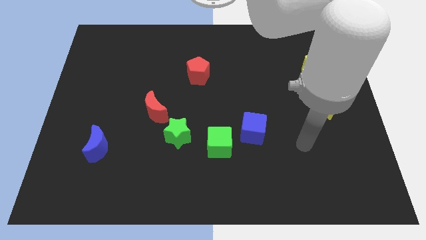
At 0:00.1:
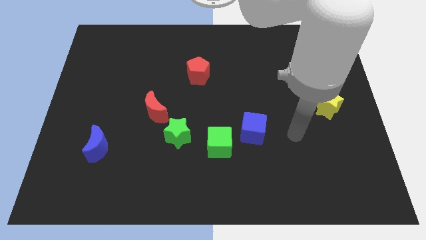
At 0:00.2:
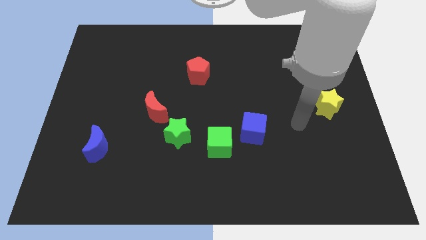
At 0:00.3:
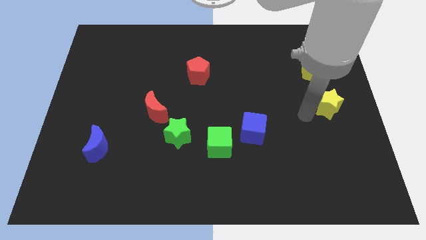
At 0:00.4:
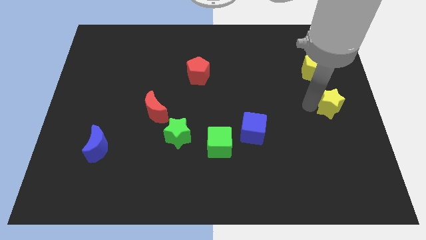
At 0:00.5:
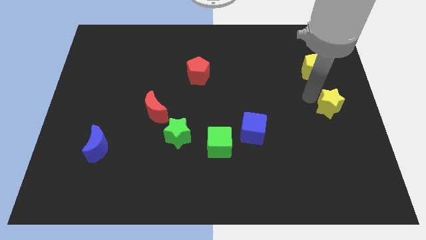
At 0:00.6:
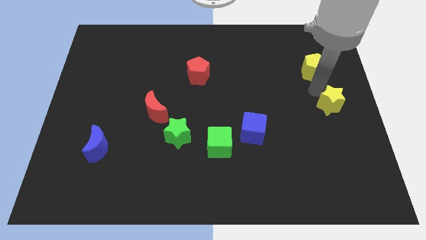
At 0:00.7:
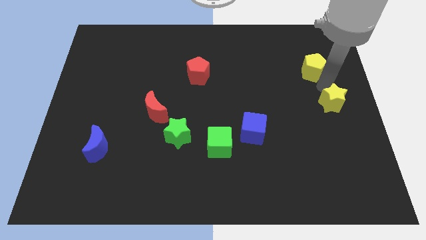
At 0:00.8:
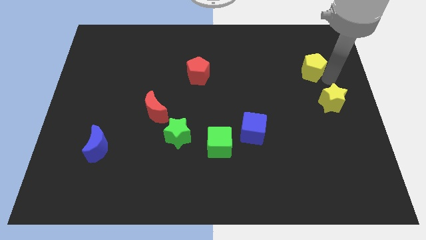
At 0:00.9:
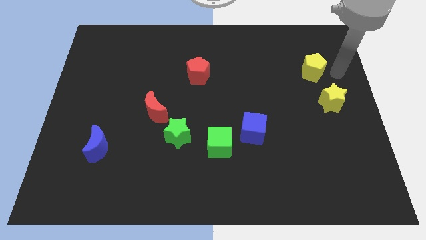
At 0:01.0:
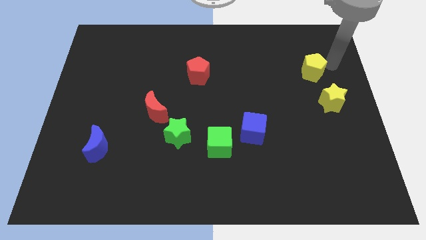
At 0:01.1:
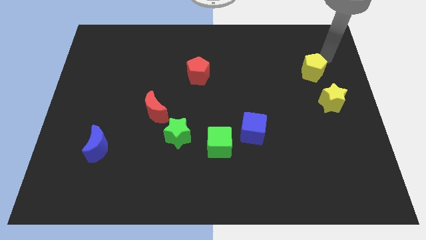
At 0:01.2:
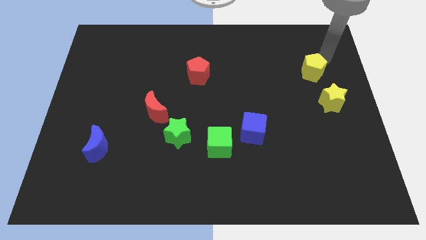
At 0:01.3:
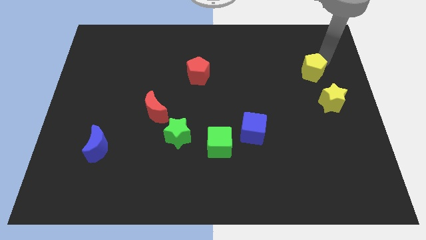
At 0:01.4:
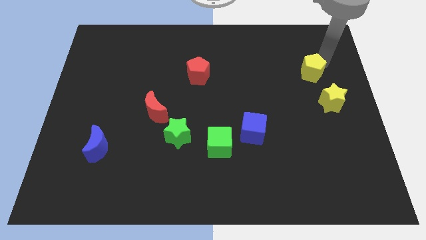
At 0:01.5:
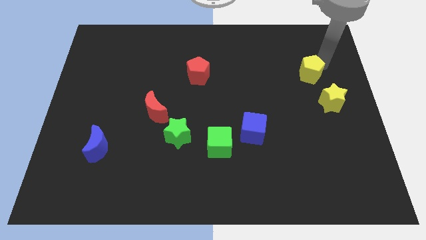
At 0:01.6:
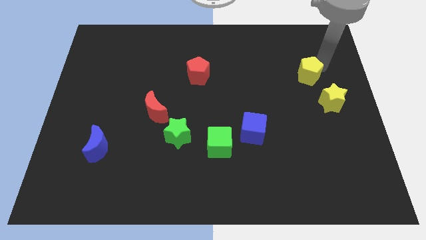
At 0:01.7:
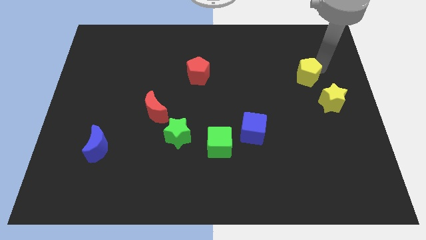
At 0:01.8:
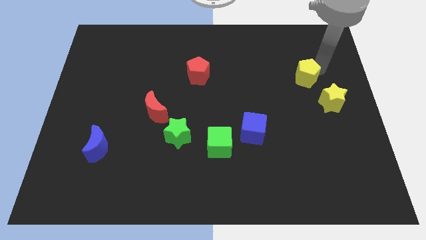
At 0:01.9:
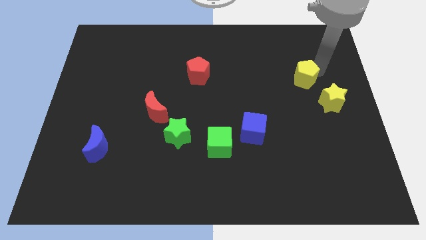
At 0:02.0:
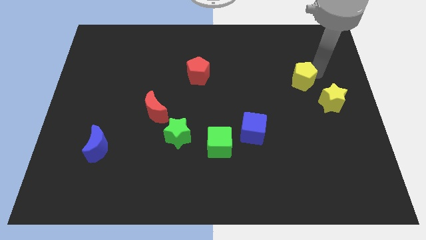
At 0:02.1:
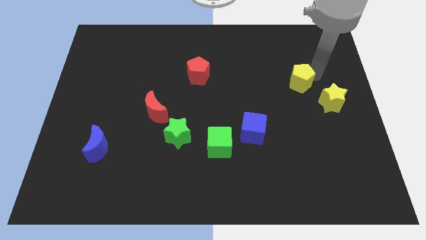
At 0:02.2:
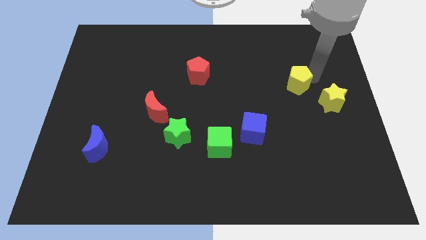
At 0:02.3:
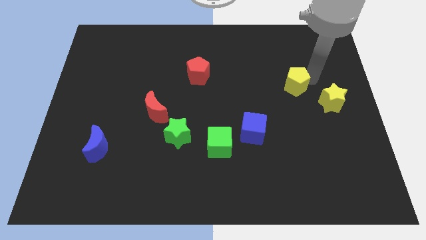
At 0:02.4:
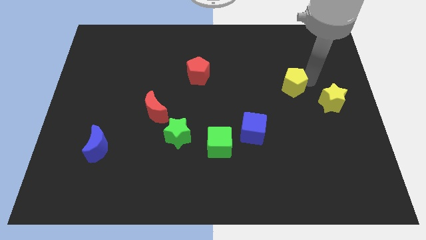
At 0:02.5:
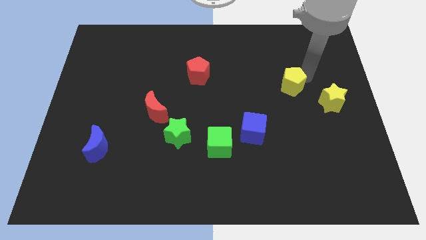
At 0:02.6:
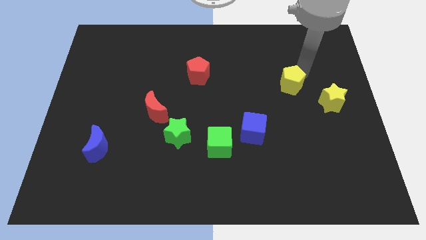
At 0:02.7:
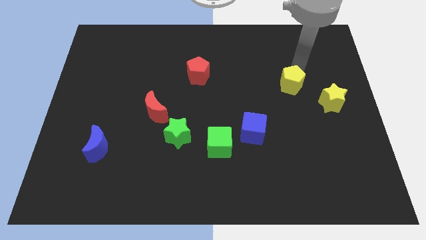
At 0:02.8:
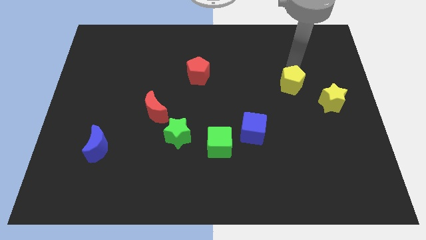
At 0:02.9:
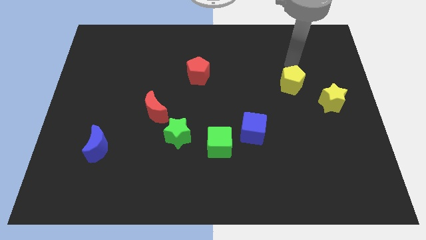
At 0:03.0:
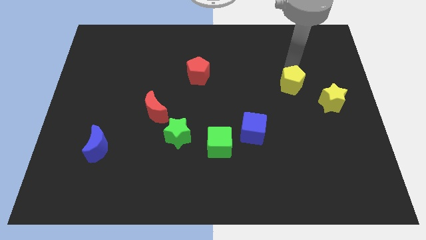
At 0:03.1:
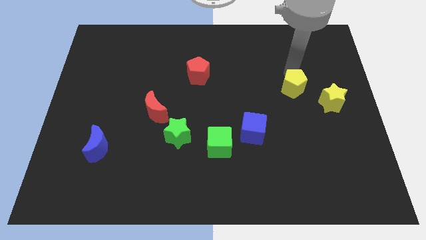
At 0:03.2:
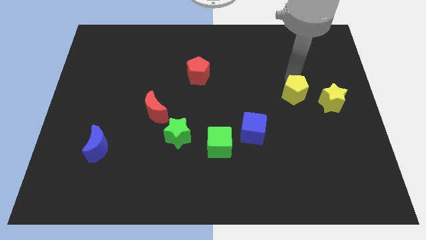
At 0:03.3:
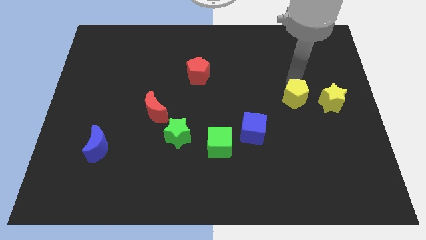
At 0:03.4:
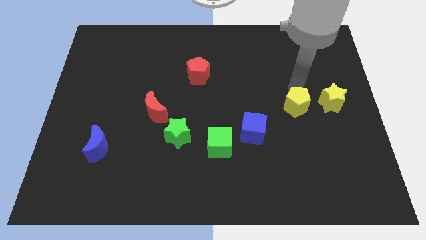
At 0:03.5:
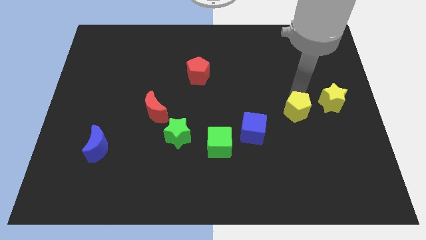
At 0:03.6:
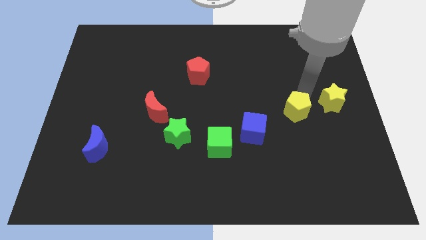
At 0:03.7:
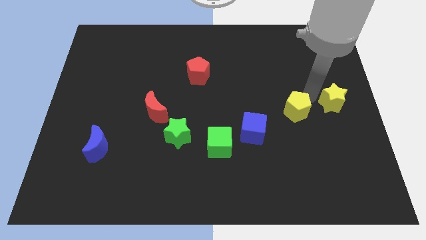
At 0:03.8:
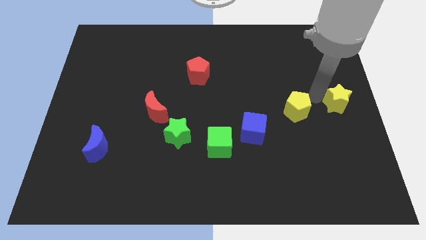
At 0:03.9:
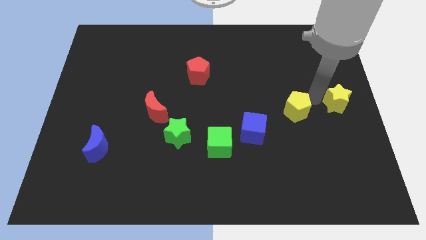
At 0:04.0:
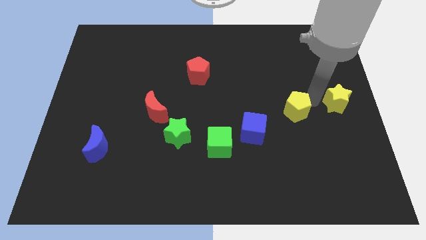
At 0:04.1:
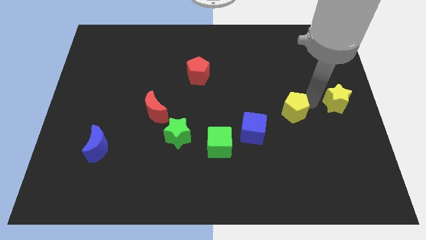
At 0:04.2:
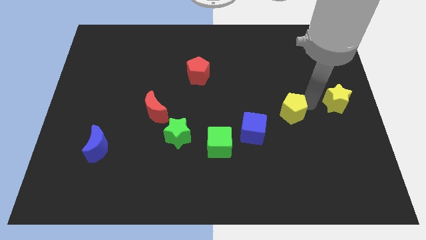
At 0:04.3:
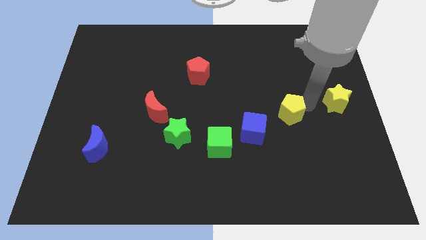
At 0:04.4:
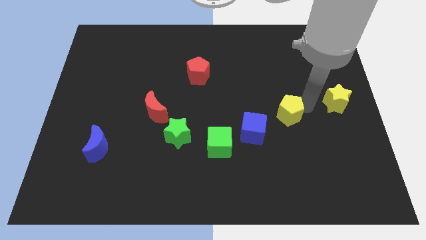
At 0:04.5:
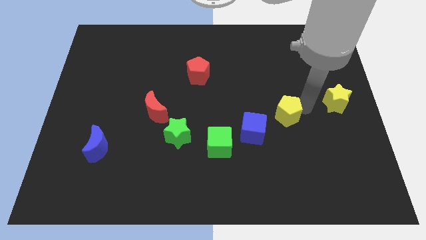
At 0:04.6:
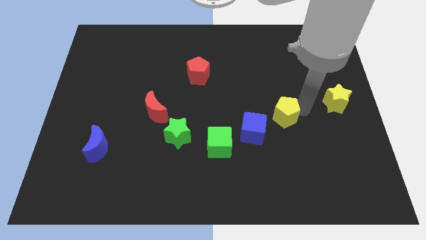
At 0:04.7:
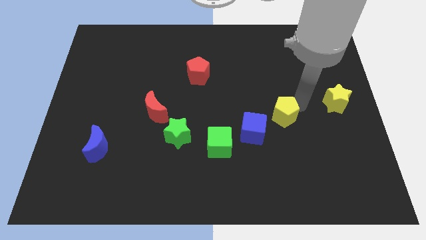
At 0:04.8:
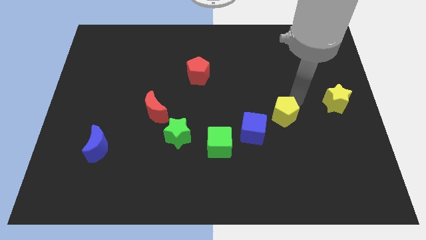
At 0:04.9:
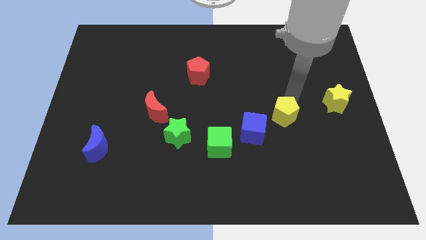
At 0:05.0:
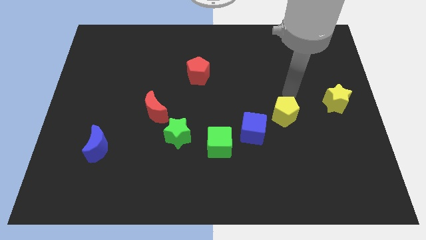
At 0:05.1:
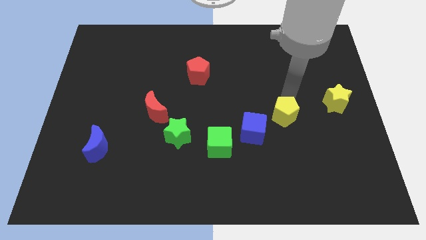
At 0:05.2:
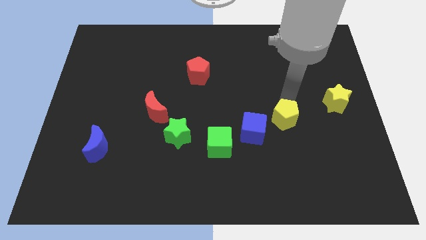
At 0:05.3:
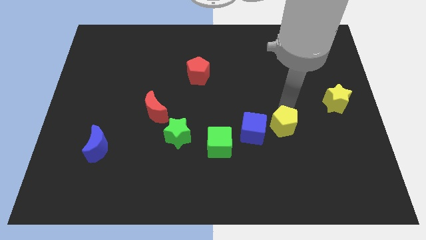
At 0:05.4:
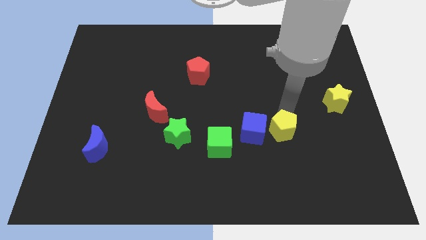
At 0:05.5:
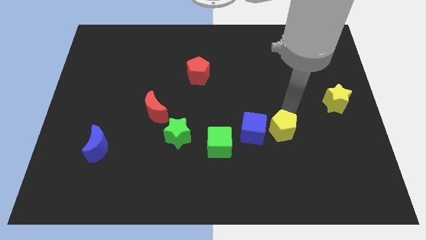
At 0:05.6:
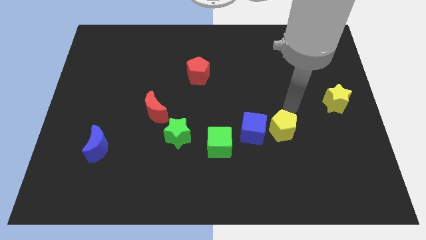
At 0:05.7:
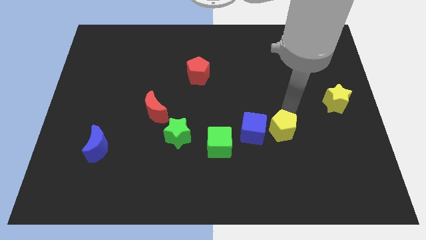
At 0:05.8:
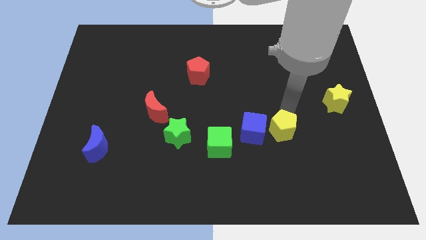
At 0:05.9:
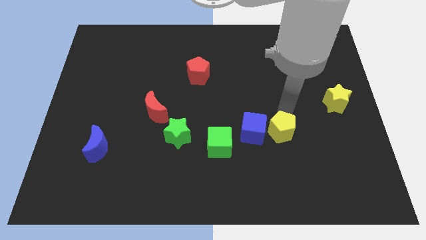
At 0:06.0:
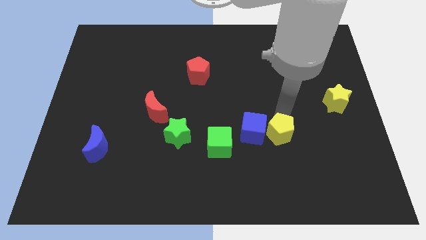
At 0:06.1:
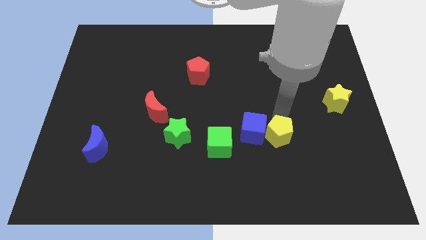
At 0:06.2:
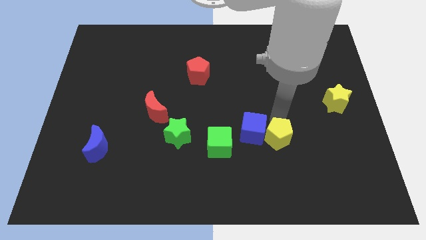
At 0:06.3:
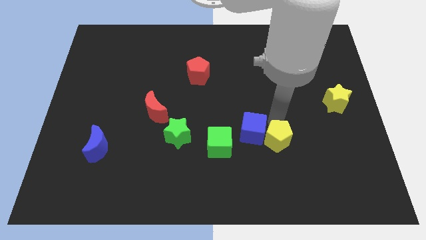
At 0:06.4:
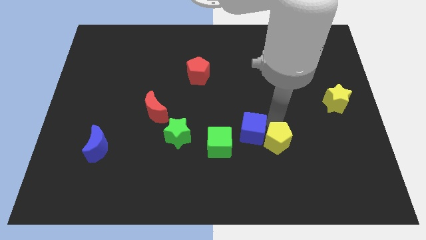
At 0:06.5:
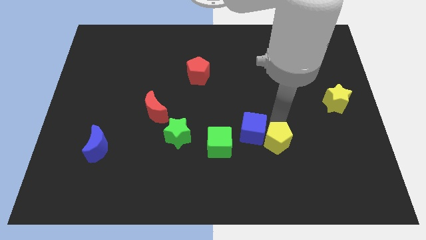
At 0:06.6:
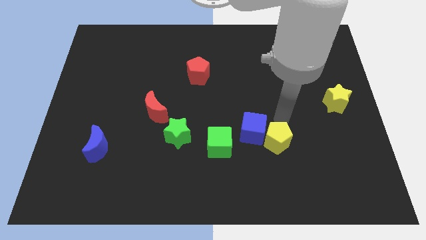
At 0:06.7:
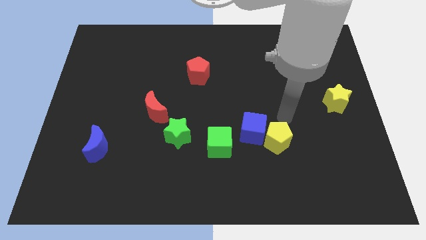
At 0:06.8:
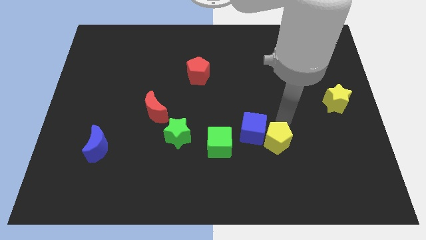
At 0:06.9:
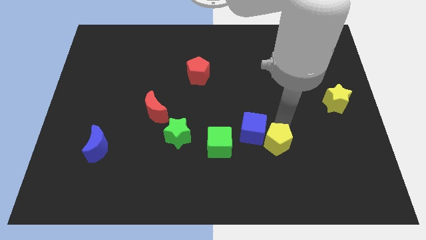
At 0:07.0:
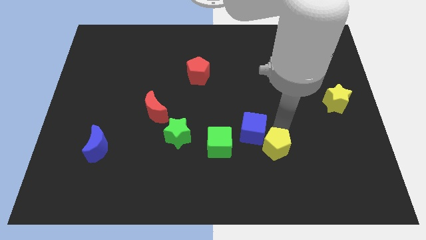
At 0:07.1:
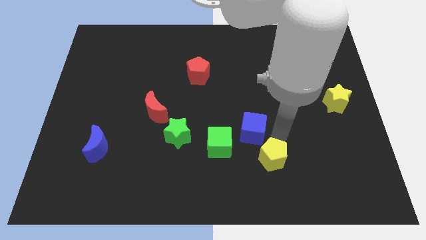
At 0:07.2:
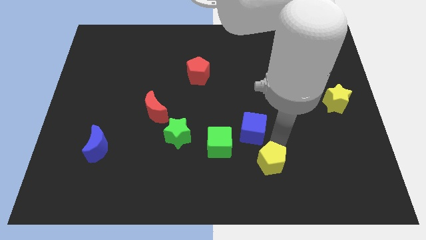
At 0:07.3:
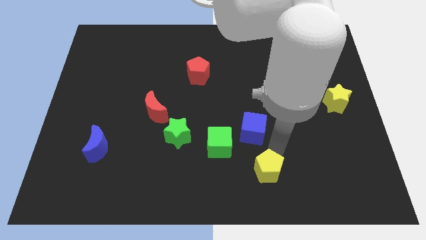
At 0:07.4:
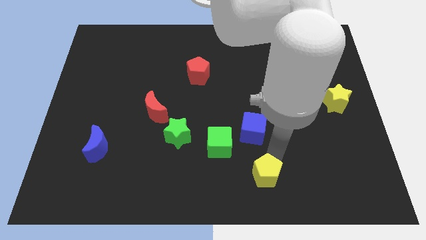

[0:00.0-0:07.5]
put the yellow pentagon to the bottom side

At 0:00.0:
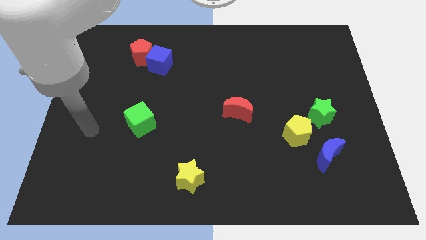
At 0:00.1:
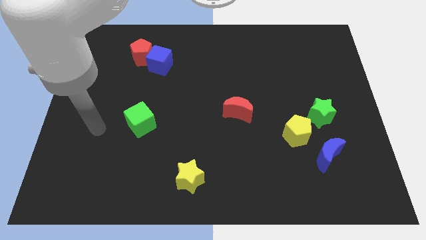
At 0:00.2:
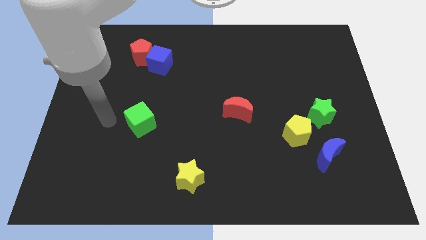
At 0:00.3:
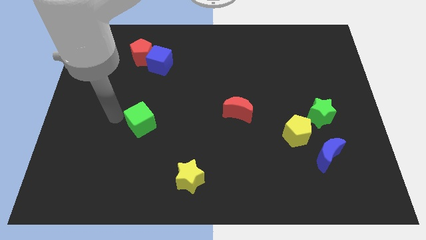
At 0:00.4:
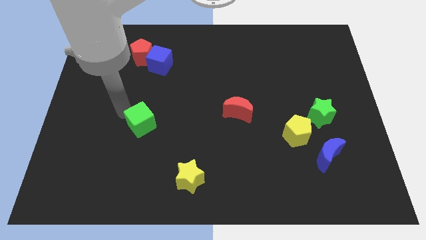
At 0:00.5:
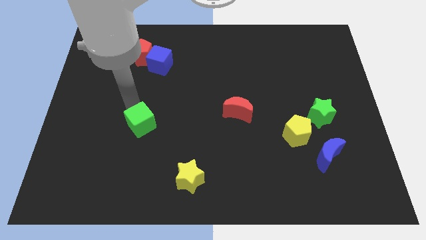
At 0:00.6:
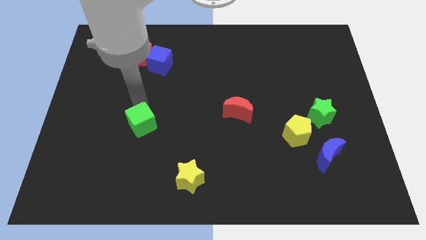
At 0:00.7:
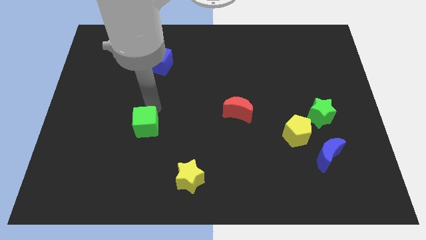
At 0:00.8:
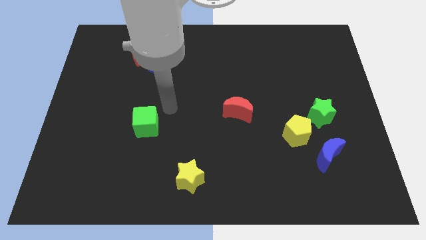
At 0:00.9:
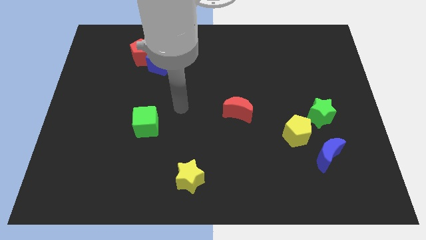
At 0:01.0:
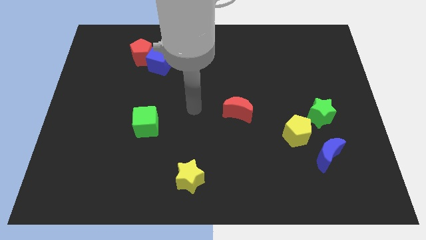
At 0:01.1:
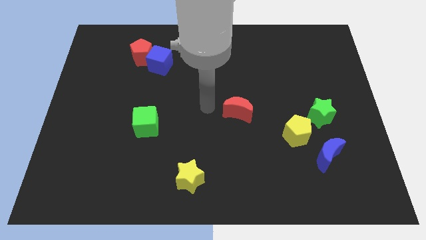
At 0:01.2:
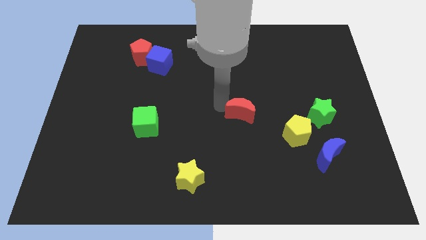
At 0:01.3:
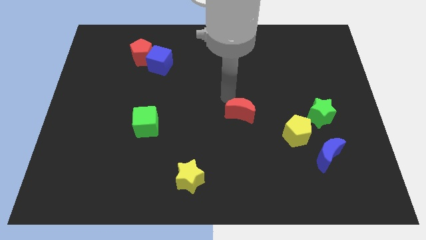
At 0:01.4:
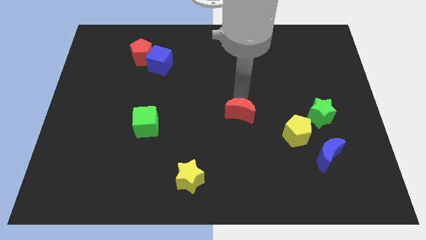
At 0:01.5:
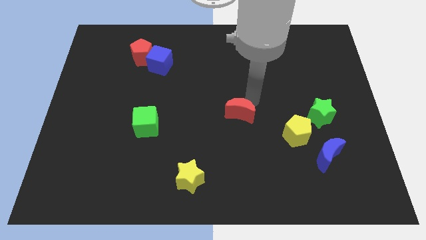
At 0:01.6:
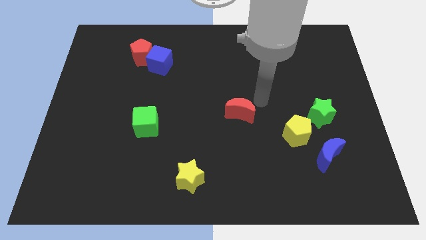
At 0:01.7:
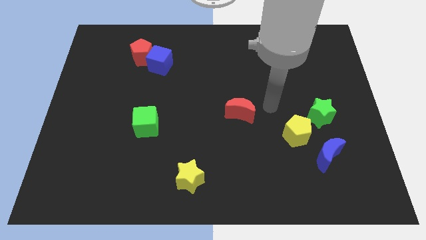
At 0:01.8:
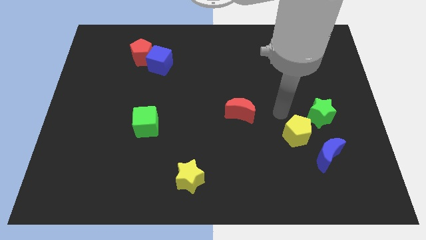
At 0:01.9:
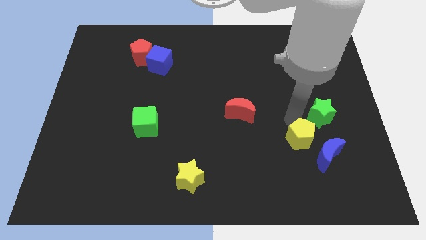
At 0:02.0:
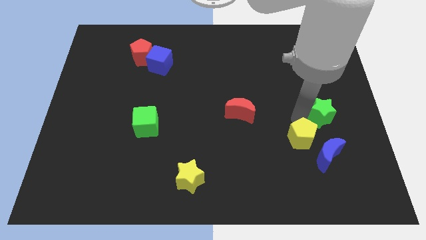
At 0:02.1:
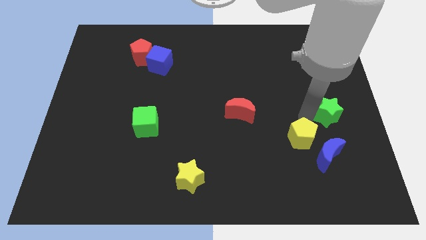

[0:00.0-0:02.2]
put the green star to the right side
